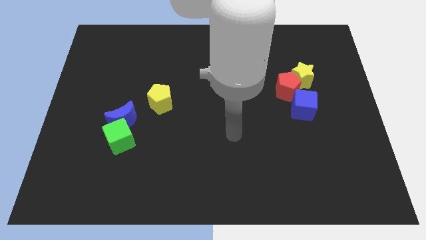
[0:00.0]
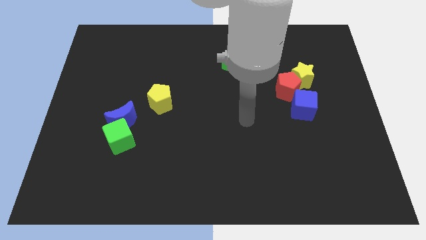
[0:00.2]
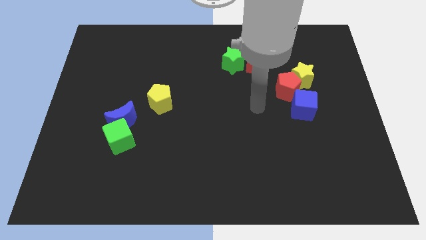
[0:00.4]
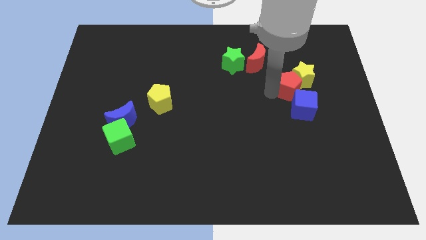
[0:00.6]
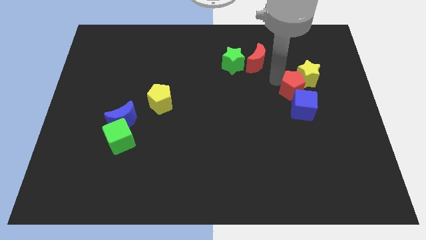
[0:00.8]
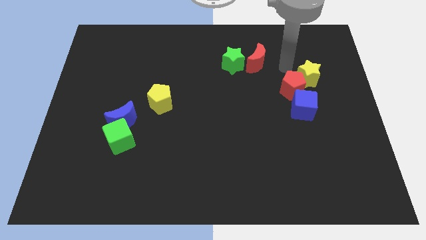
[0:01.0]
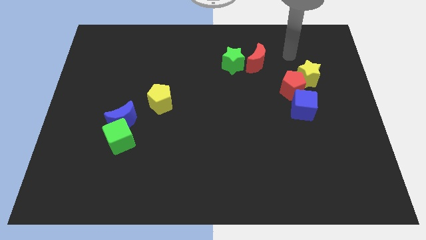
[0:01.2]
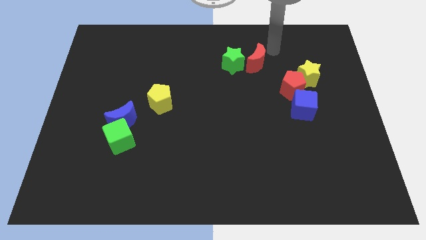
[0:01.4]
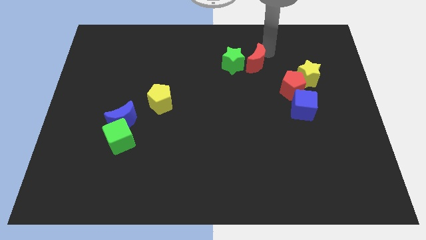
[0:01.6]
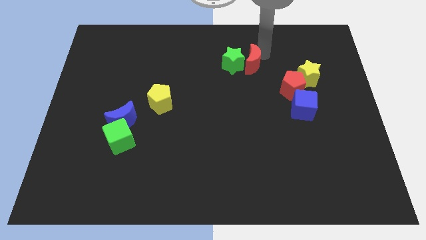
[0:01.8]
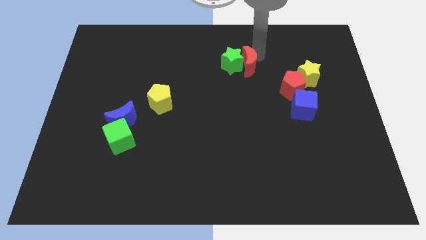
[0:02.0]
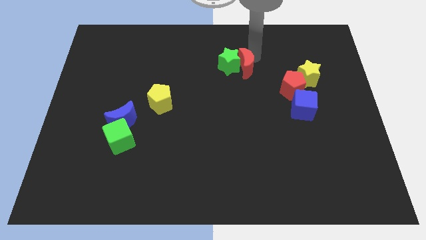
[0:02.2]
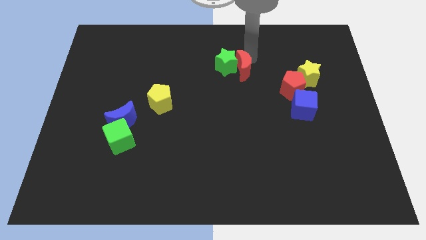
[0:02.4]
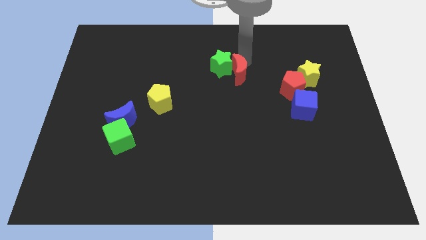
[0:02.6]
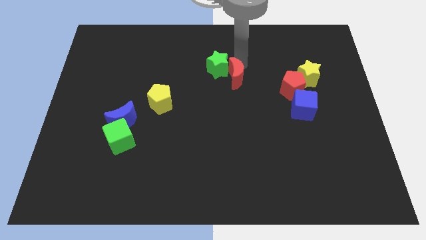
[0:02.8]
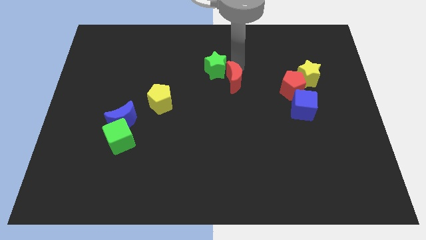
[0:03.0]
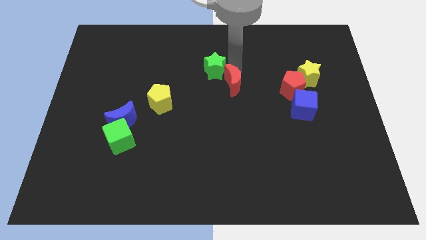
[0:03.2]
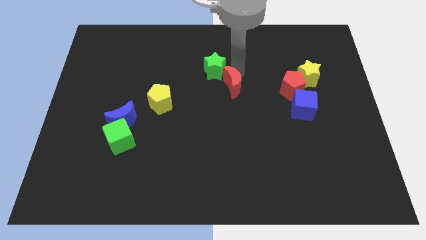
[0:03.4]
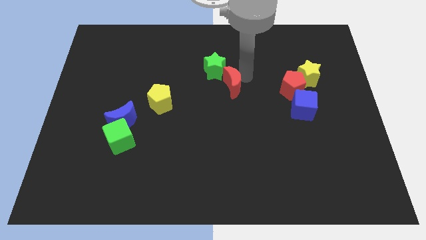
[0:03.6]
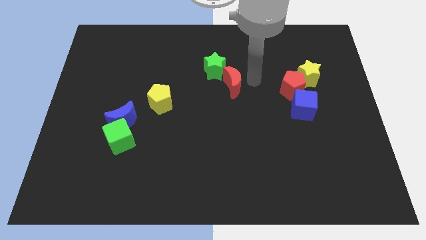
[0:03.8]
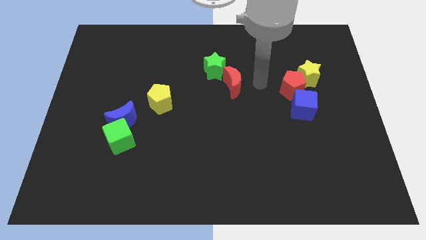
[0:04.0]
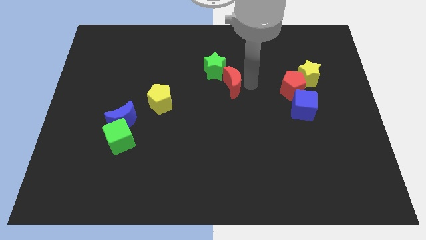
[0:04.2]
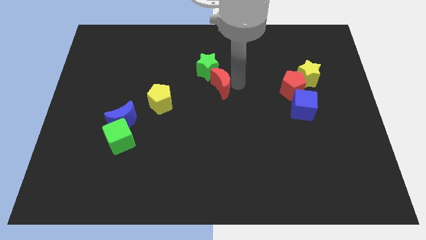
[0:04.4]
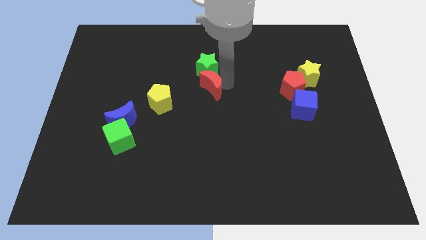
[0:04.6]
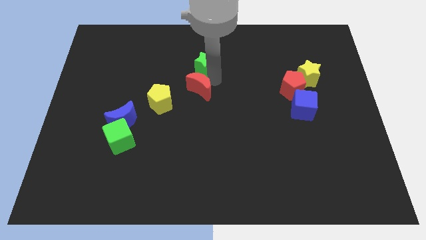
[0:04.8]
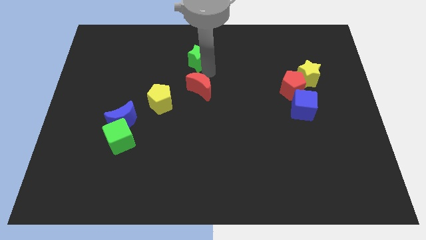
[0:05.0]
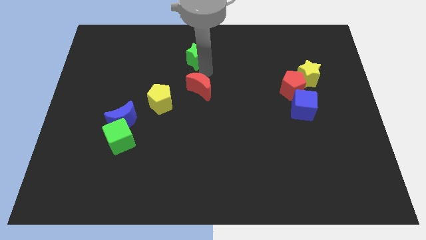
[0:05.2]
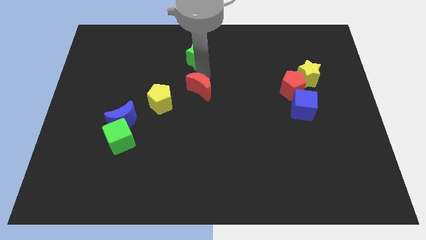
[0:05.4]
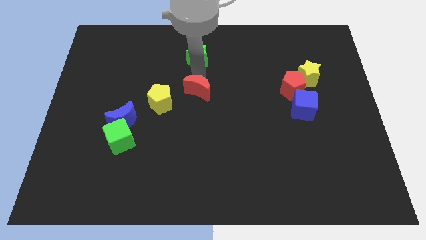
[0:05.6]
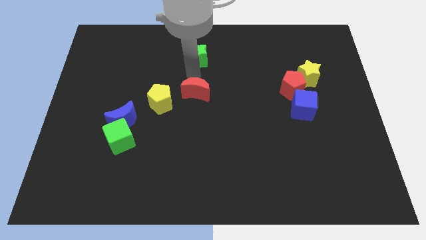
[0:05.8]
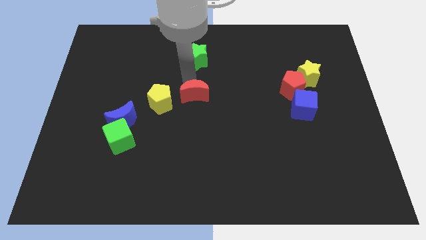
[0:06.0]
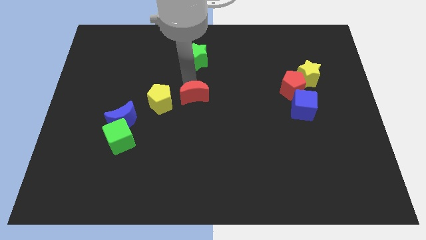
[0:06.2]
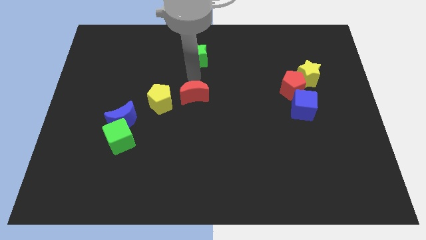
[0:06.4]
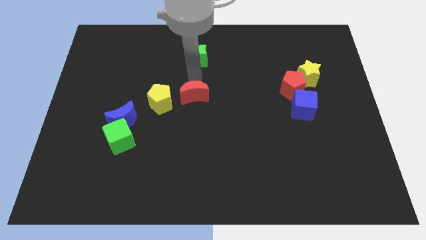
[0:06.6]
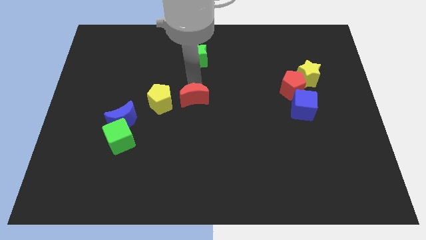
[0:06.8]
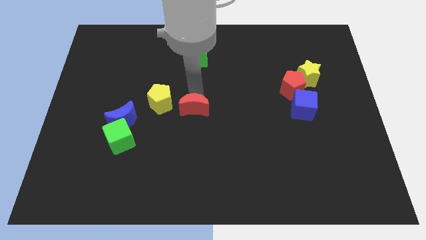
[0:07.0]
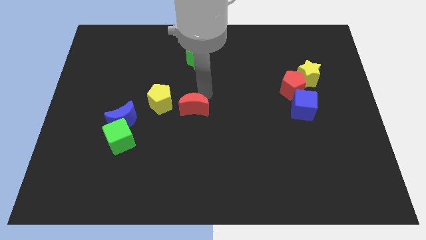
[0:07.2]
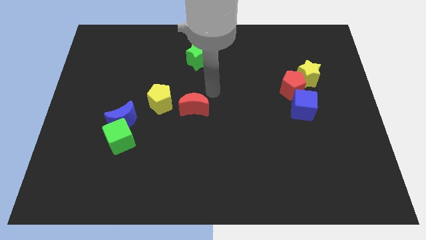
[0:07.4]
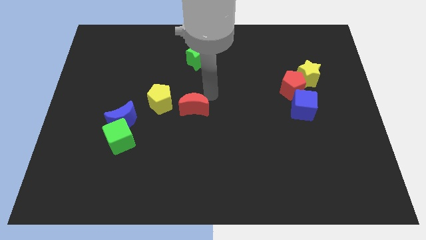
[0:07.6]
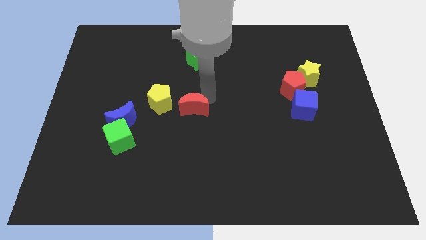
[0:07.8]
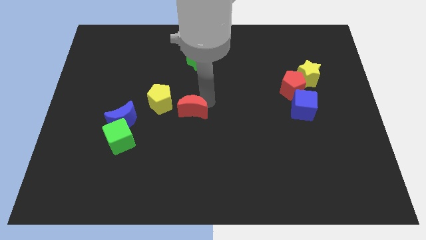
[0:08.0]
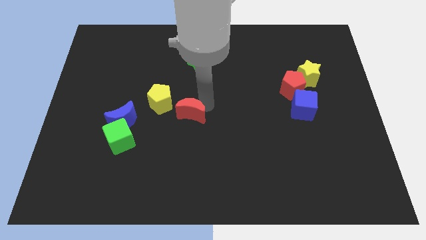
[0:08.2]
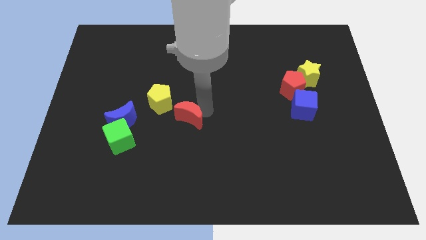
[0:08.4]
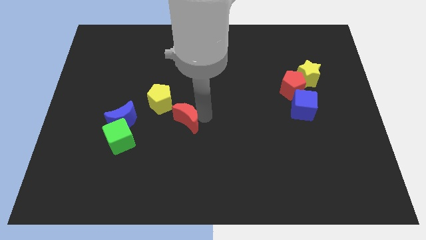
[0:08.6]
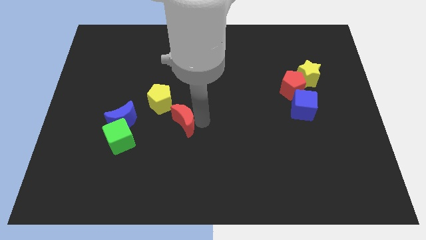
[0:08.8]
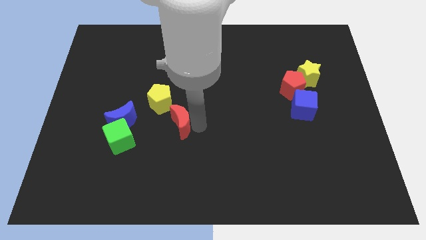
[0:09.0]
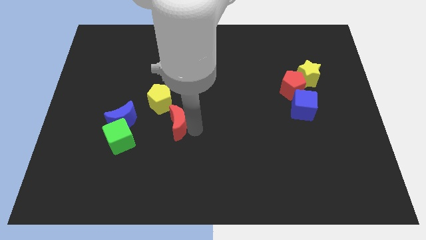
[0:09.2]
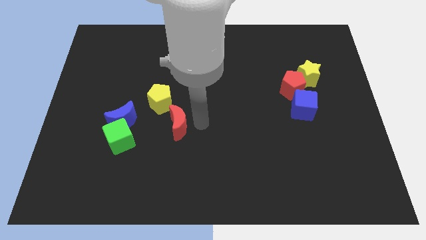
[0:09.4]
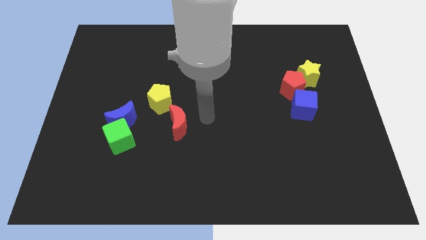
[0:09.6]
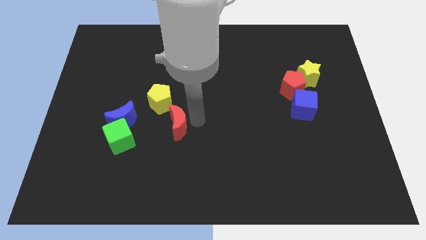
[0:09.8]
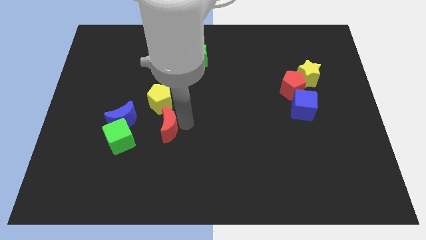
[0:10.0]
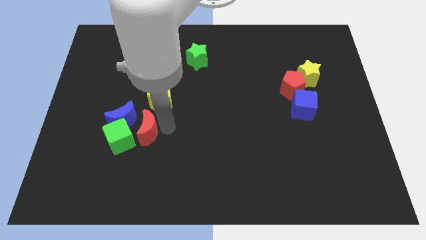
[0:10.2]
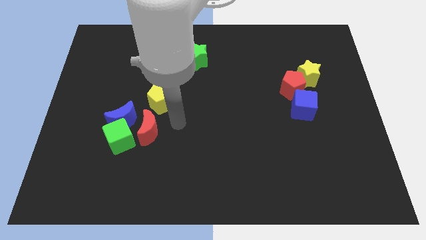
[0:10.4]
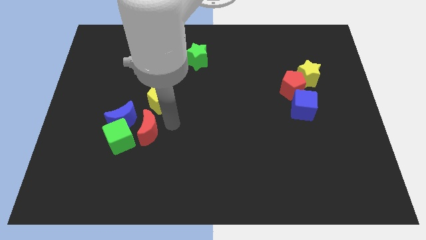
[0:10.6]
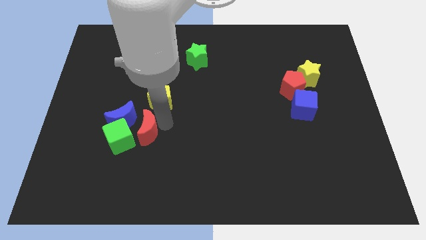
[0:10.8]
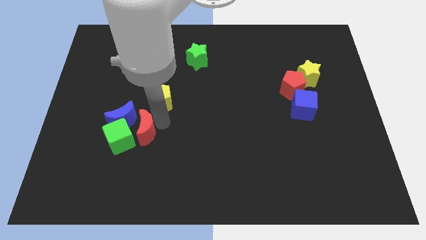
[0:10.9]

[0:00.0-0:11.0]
push the red moon close to the green cube

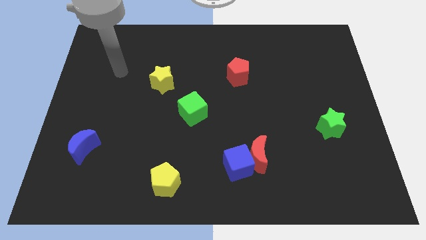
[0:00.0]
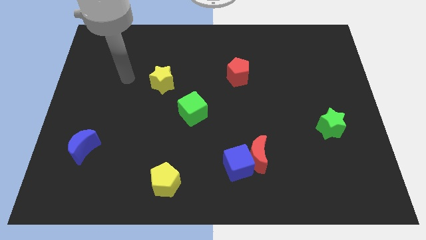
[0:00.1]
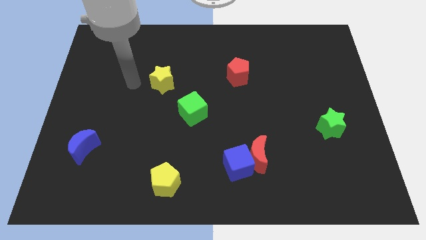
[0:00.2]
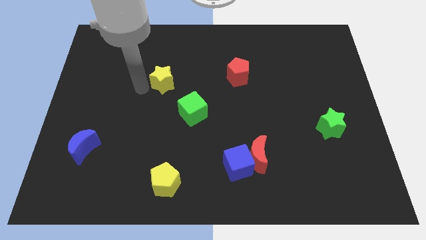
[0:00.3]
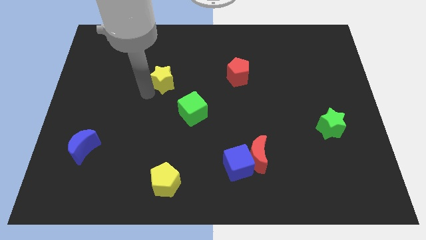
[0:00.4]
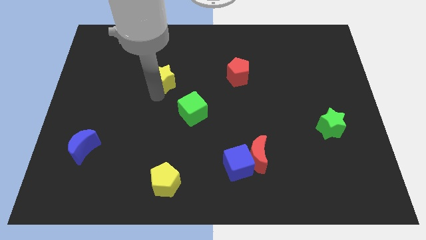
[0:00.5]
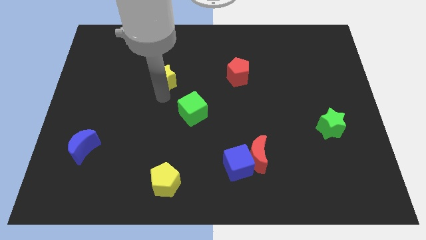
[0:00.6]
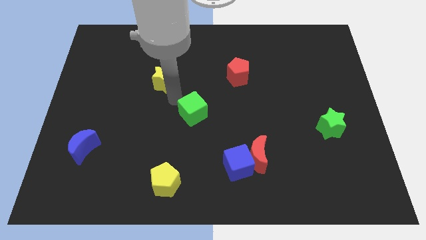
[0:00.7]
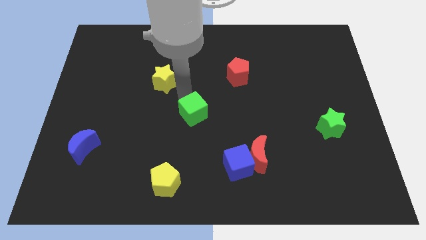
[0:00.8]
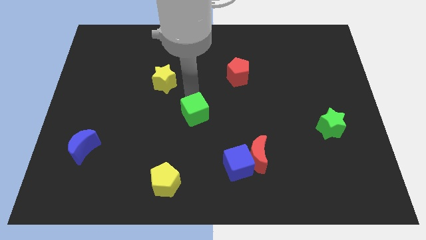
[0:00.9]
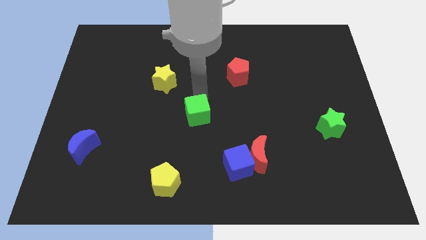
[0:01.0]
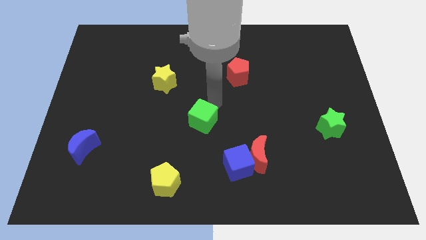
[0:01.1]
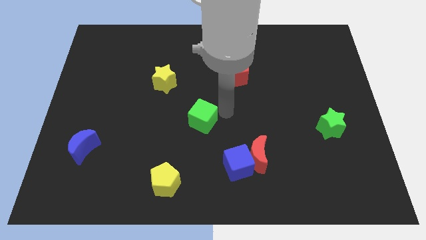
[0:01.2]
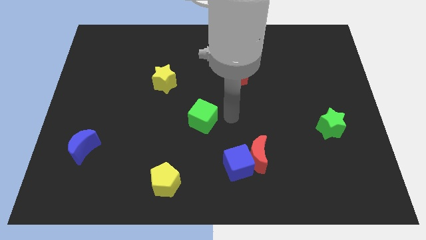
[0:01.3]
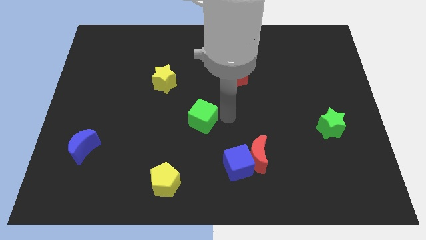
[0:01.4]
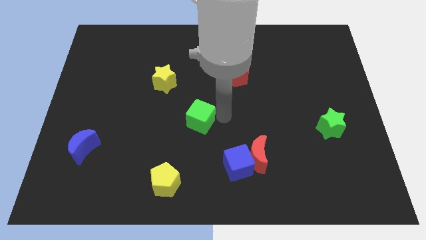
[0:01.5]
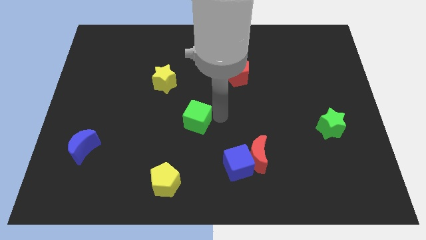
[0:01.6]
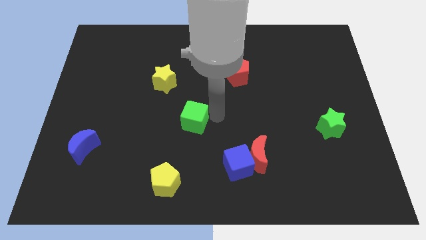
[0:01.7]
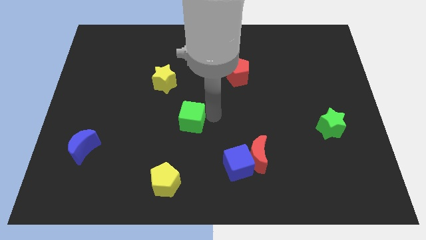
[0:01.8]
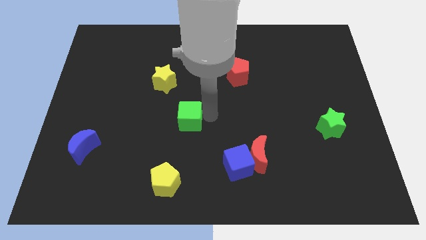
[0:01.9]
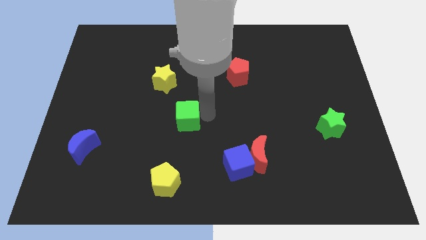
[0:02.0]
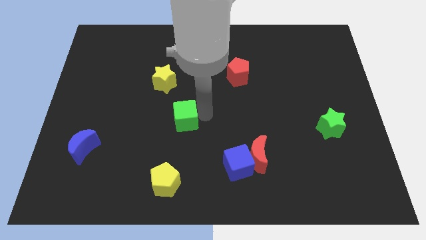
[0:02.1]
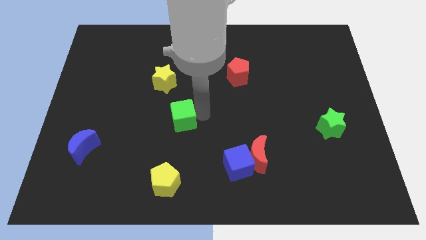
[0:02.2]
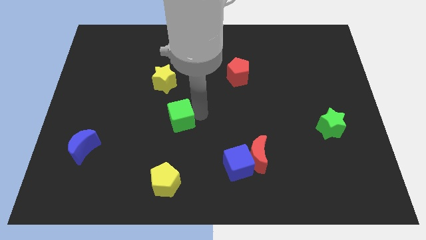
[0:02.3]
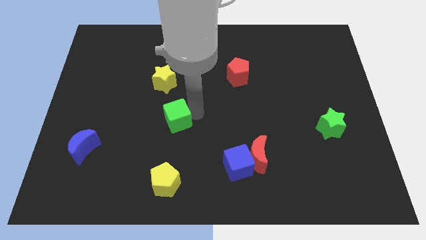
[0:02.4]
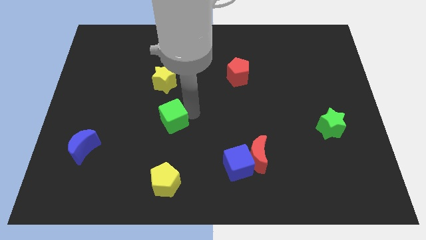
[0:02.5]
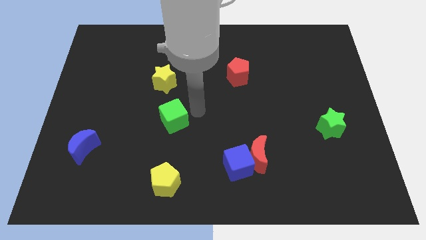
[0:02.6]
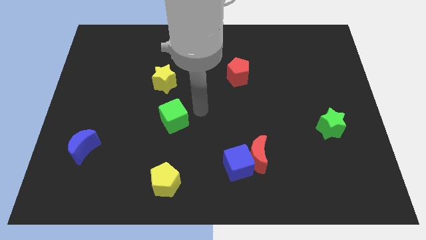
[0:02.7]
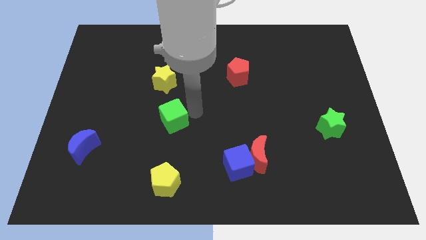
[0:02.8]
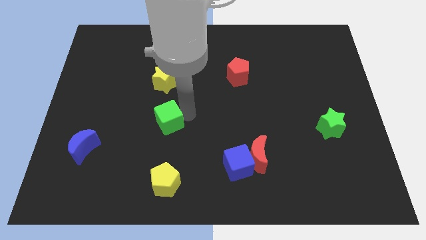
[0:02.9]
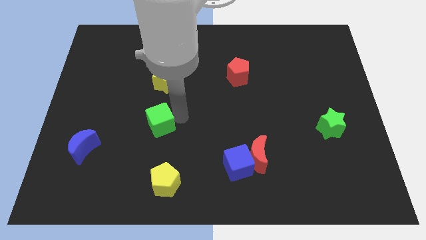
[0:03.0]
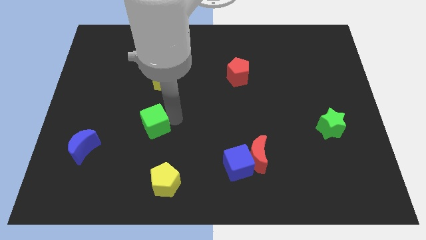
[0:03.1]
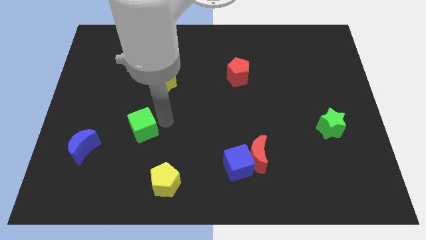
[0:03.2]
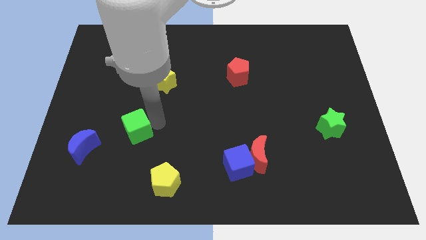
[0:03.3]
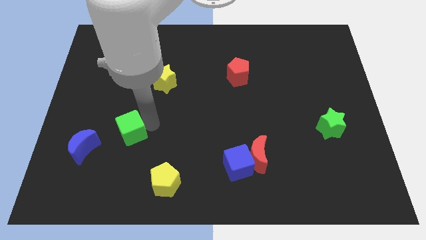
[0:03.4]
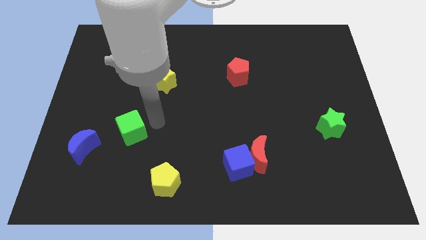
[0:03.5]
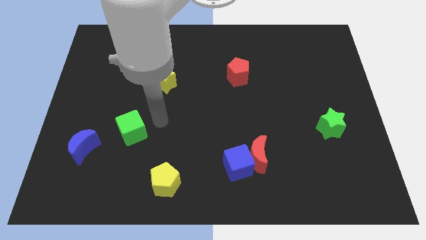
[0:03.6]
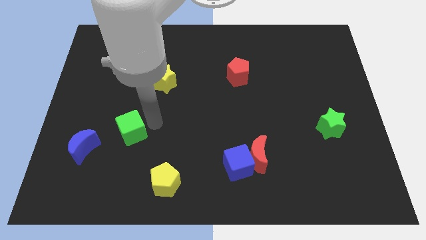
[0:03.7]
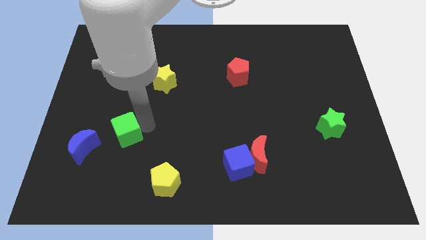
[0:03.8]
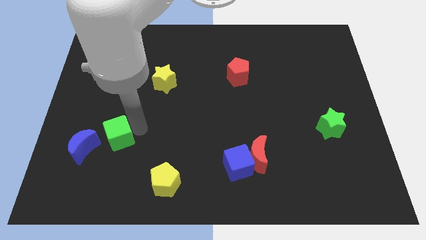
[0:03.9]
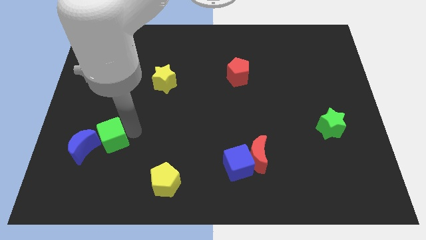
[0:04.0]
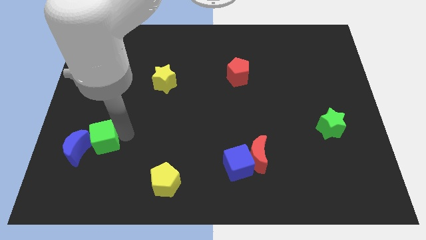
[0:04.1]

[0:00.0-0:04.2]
move the green cube close to the blue moon
